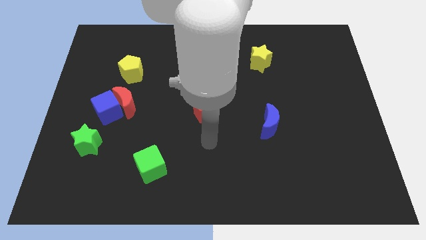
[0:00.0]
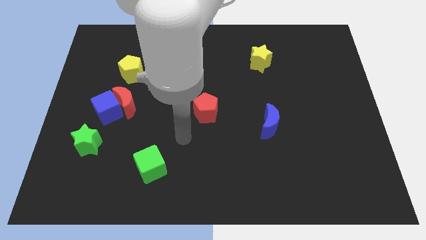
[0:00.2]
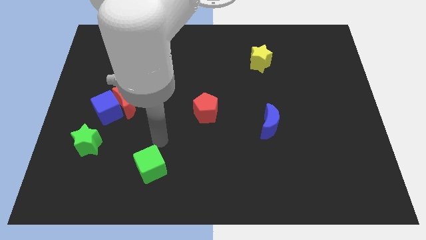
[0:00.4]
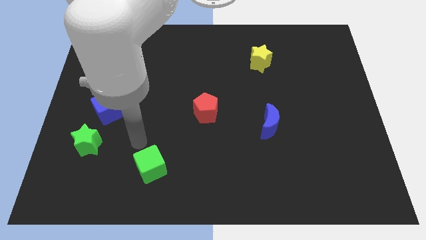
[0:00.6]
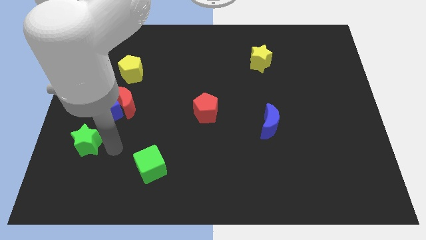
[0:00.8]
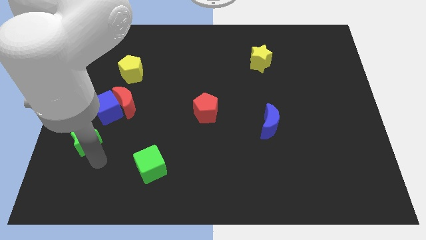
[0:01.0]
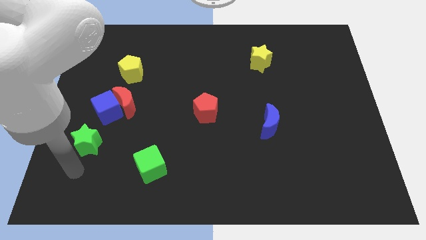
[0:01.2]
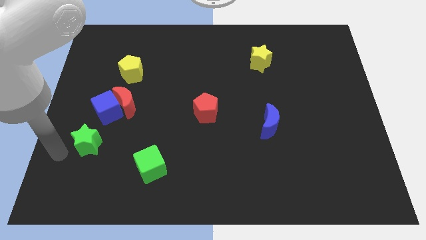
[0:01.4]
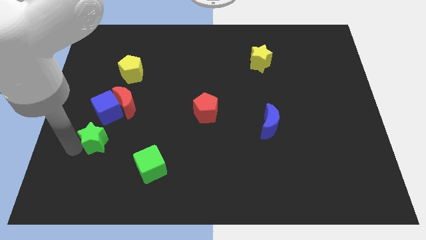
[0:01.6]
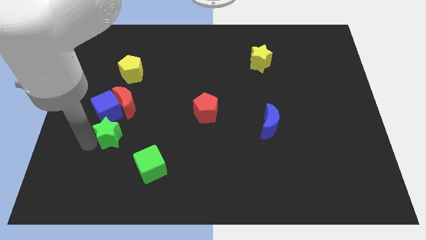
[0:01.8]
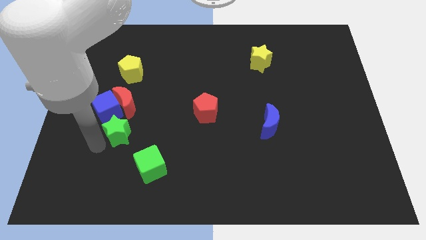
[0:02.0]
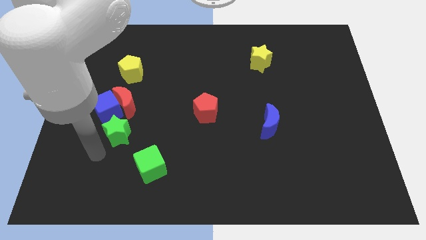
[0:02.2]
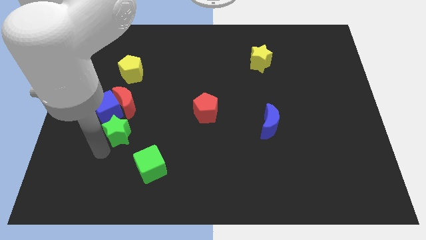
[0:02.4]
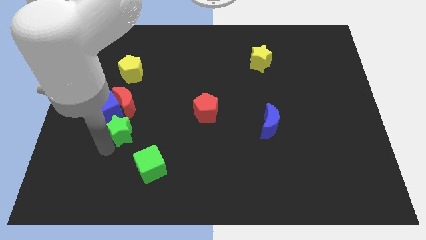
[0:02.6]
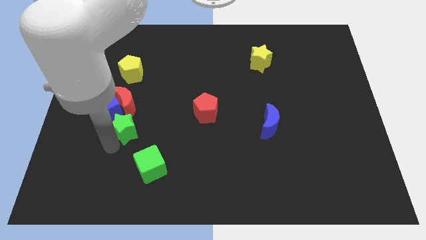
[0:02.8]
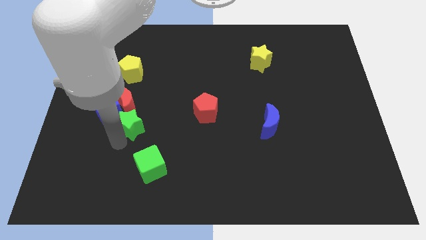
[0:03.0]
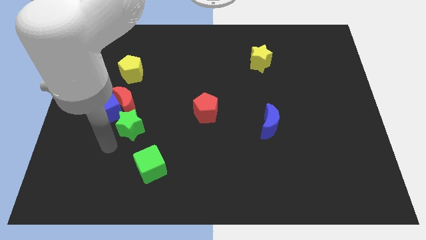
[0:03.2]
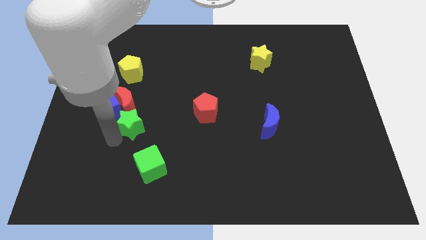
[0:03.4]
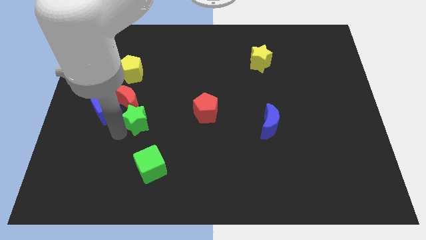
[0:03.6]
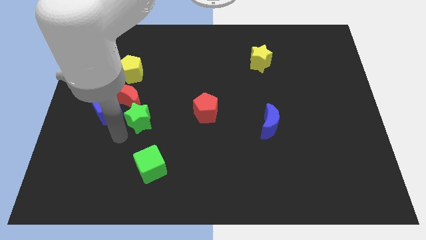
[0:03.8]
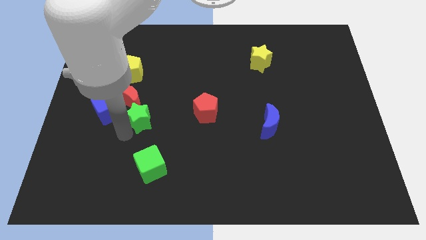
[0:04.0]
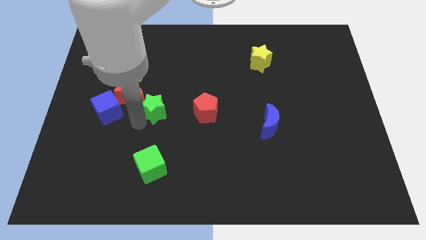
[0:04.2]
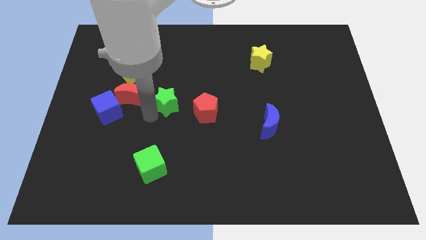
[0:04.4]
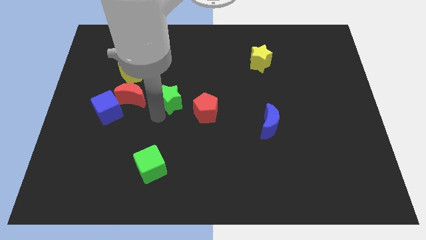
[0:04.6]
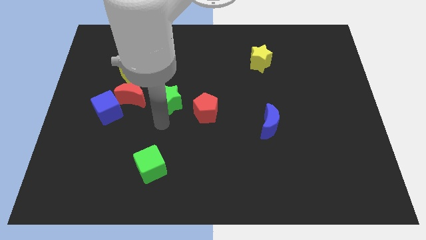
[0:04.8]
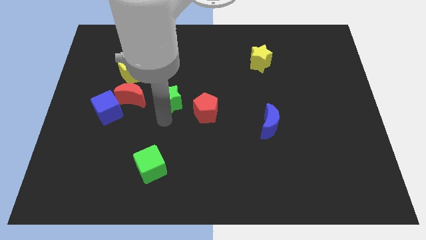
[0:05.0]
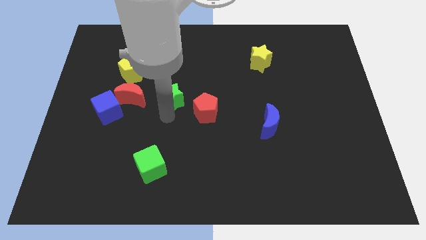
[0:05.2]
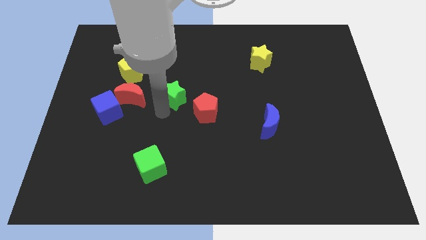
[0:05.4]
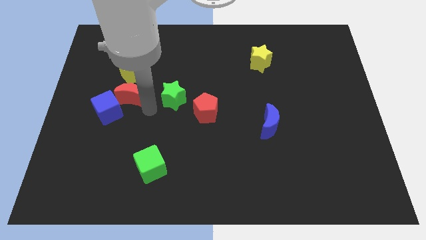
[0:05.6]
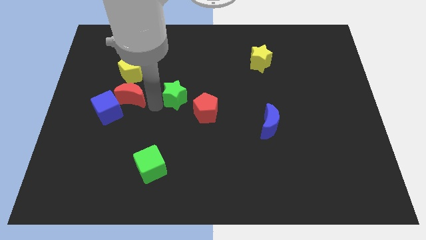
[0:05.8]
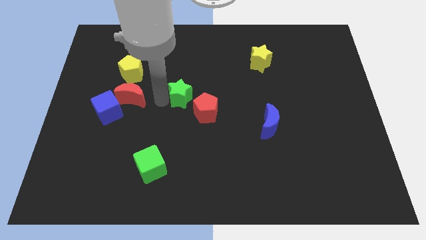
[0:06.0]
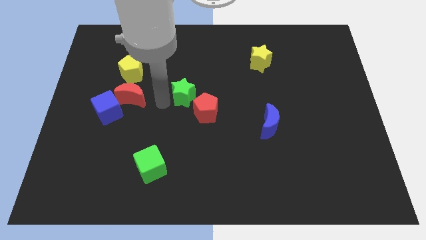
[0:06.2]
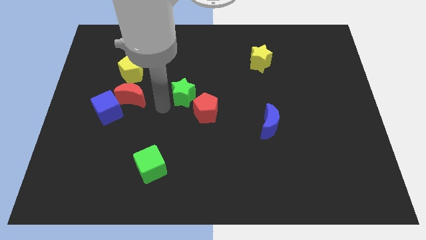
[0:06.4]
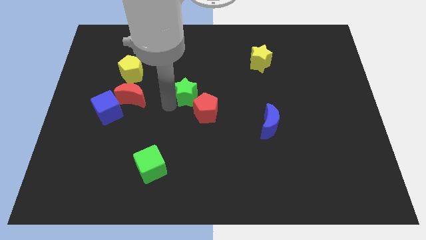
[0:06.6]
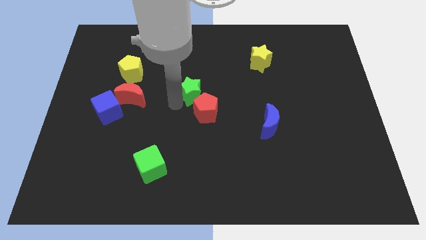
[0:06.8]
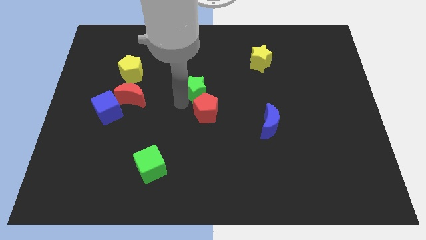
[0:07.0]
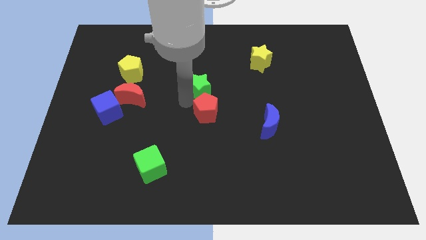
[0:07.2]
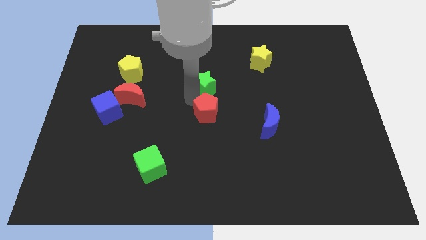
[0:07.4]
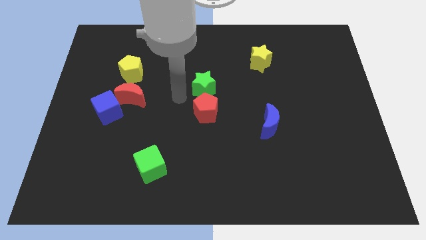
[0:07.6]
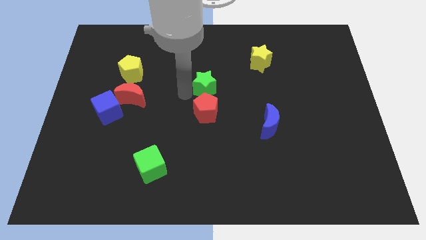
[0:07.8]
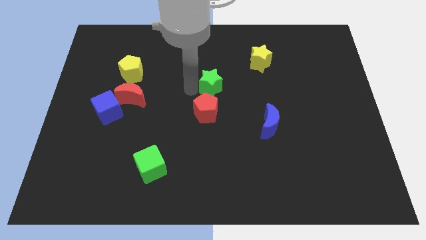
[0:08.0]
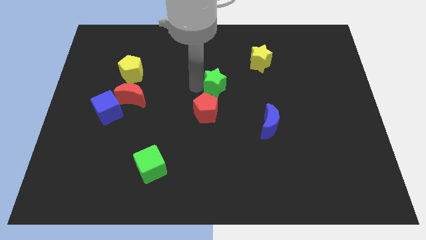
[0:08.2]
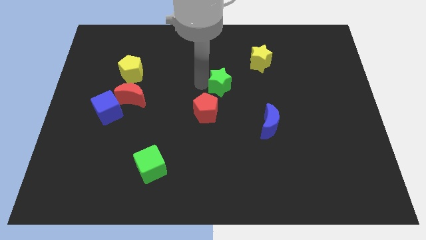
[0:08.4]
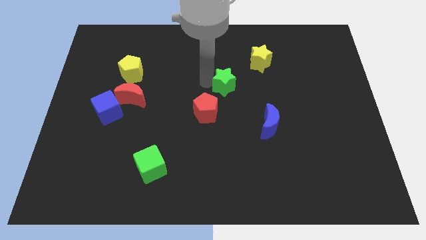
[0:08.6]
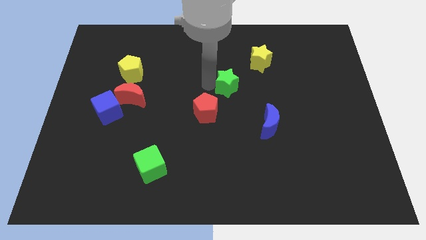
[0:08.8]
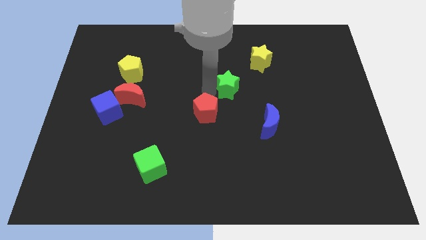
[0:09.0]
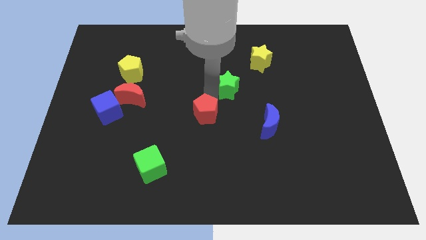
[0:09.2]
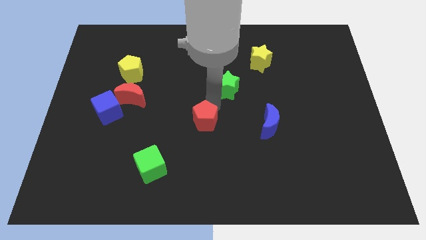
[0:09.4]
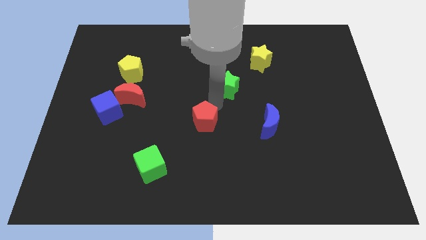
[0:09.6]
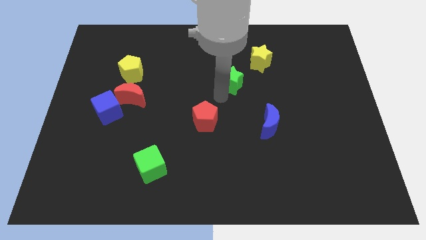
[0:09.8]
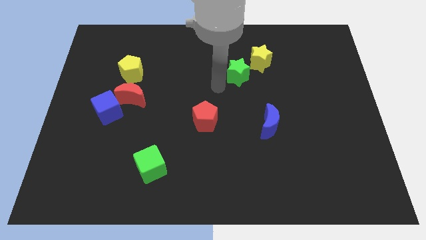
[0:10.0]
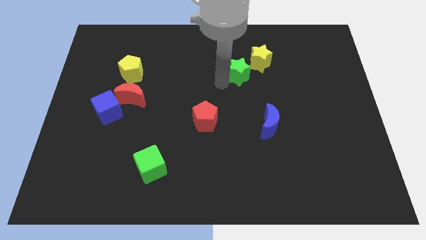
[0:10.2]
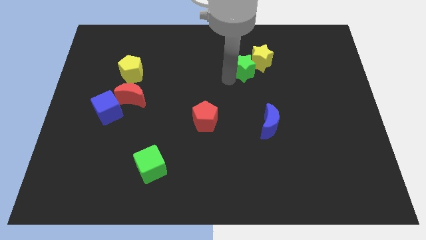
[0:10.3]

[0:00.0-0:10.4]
put the green star close to the yellow star

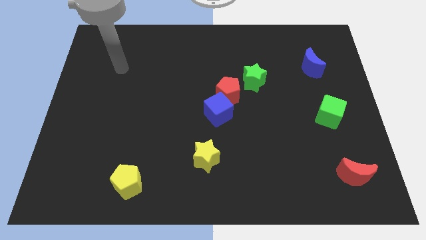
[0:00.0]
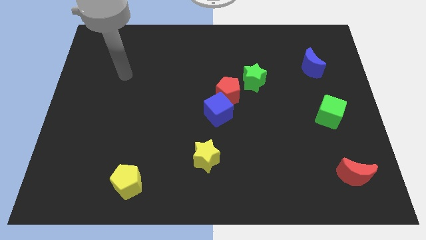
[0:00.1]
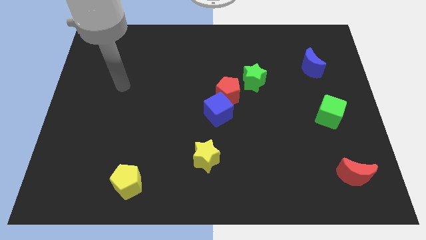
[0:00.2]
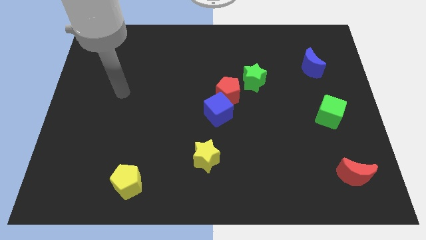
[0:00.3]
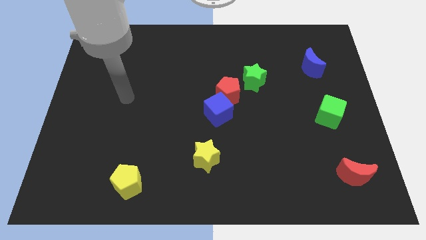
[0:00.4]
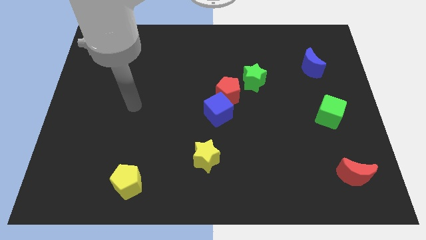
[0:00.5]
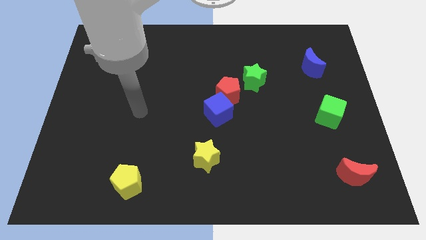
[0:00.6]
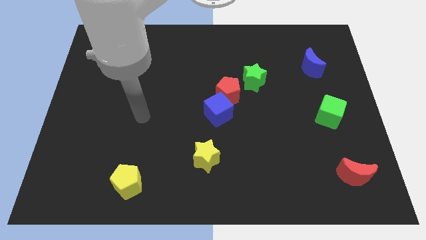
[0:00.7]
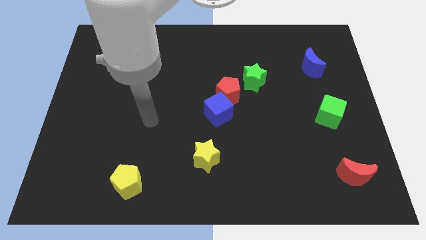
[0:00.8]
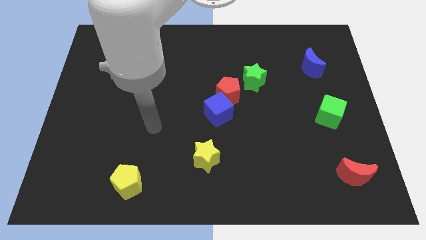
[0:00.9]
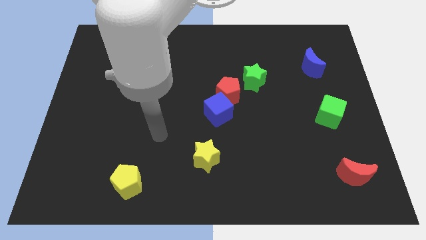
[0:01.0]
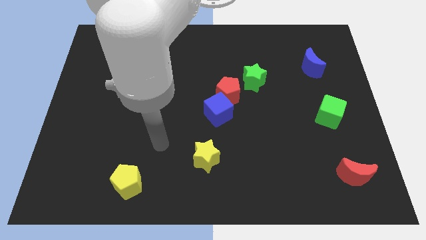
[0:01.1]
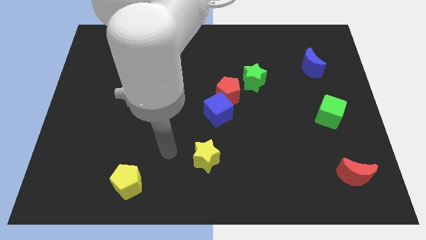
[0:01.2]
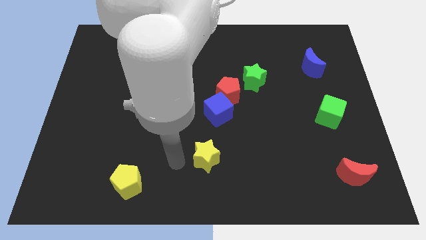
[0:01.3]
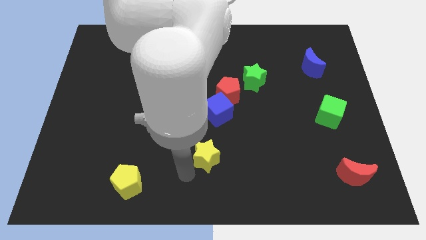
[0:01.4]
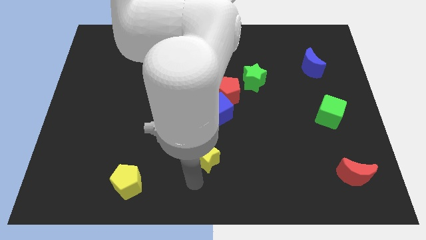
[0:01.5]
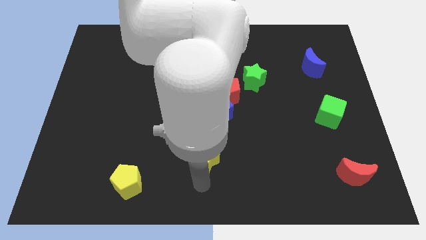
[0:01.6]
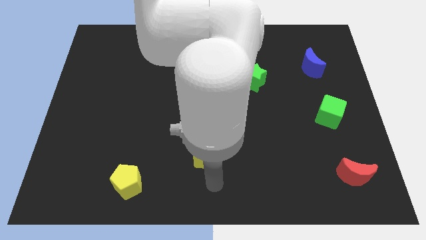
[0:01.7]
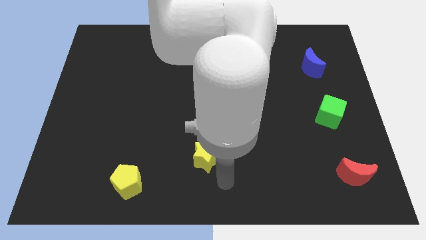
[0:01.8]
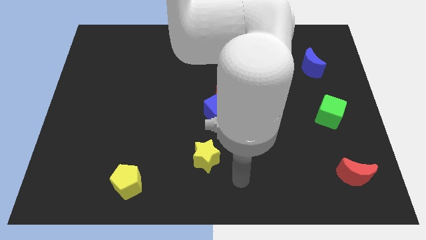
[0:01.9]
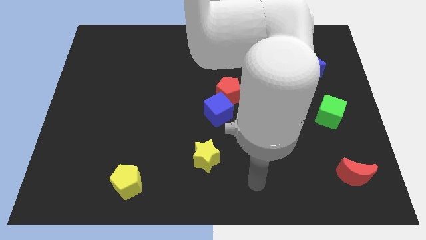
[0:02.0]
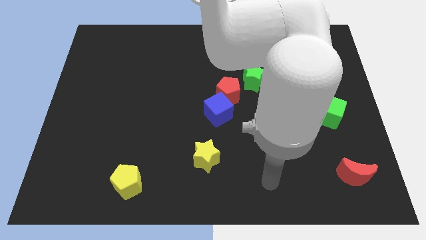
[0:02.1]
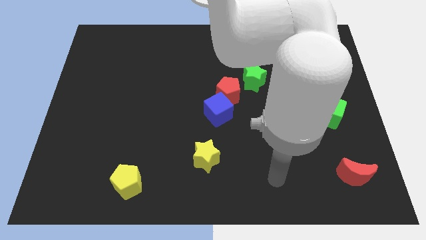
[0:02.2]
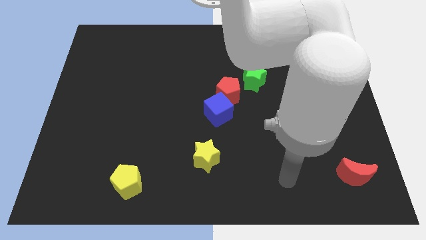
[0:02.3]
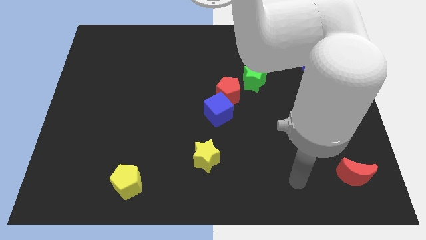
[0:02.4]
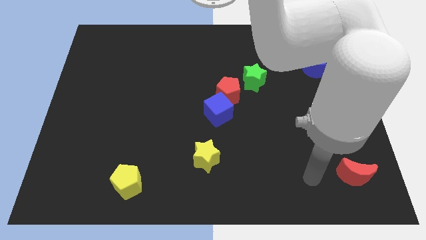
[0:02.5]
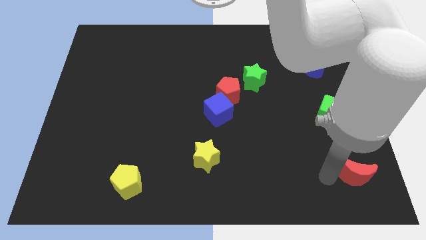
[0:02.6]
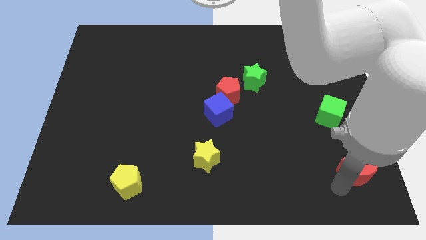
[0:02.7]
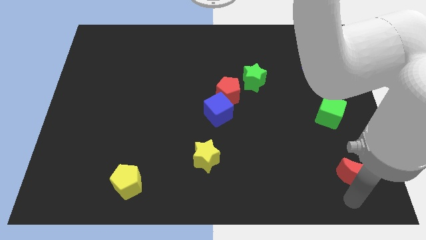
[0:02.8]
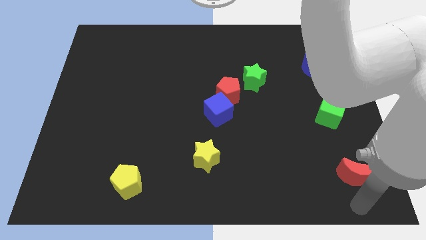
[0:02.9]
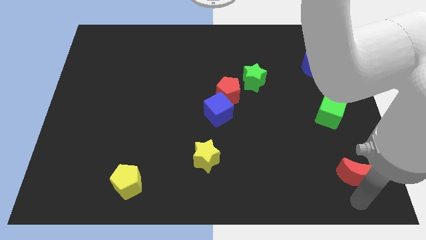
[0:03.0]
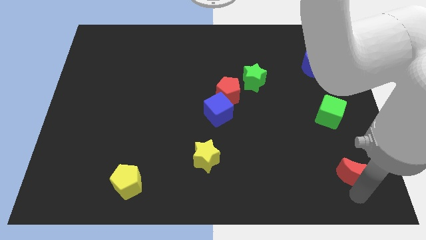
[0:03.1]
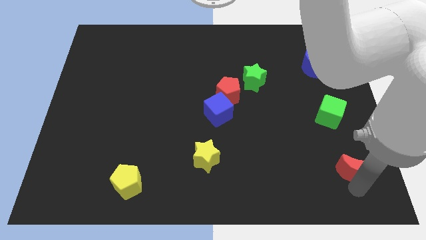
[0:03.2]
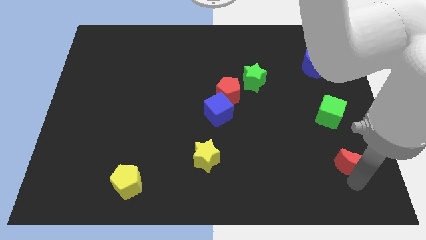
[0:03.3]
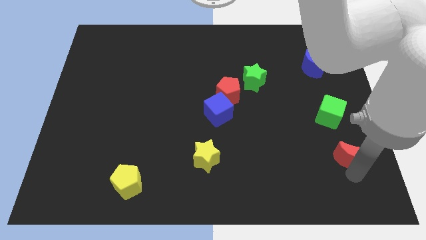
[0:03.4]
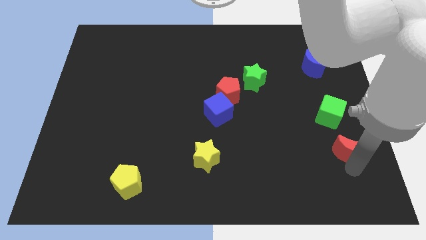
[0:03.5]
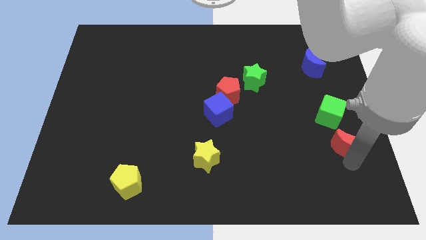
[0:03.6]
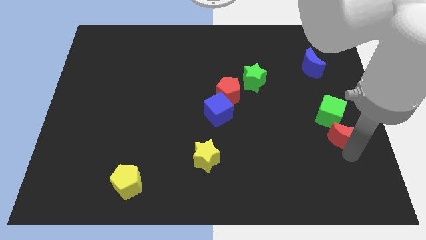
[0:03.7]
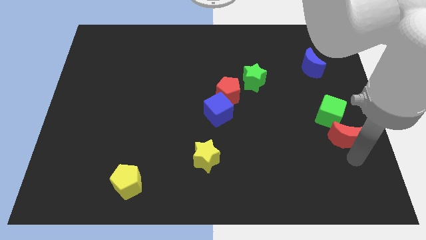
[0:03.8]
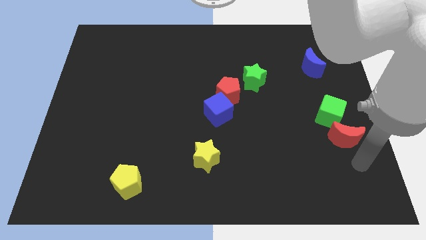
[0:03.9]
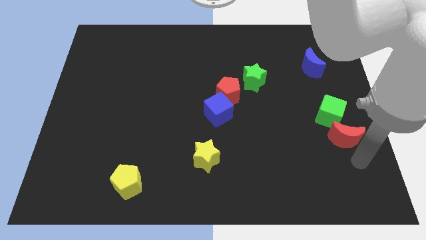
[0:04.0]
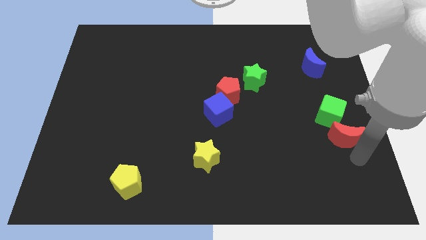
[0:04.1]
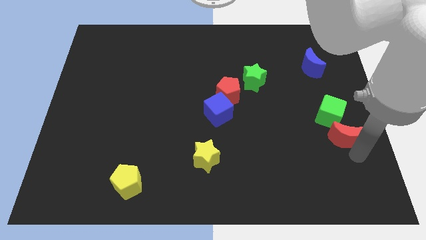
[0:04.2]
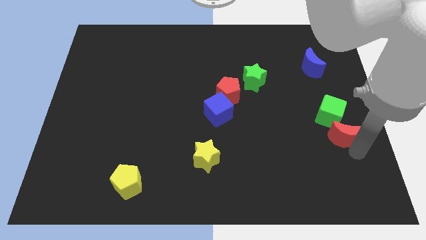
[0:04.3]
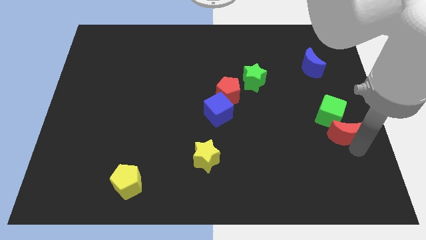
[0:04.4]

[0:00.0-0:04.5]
move the red moon to the green cube
